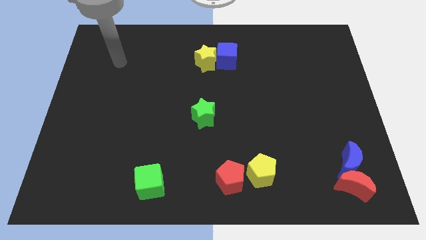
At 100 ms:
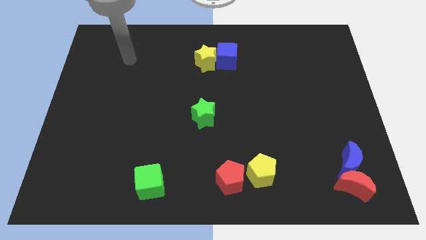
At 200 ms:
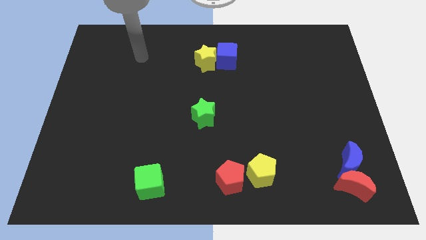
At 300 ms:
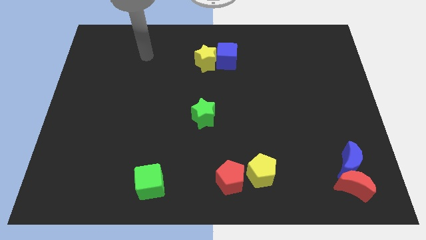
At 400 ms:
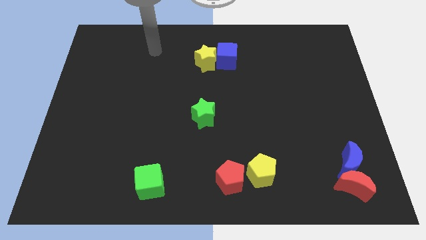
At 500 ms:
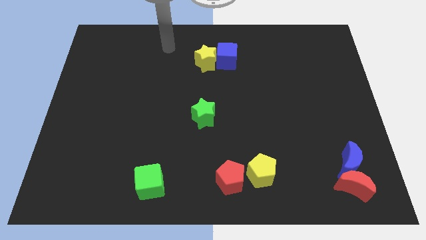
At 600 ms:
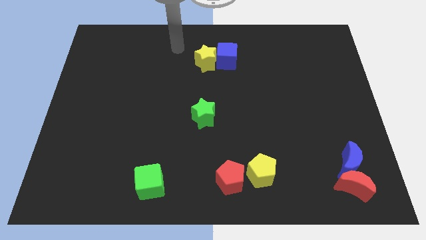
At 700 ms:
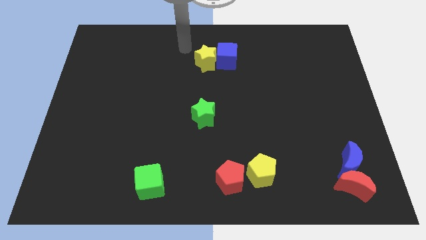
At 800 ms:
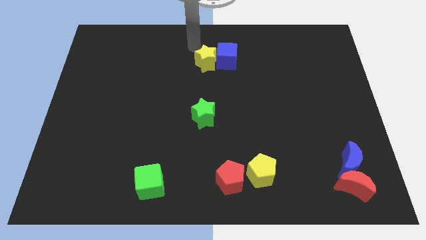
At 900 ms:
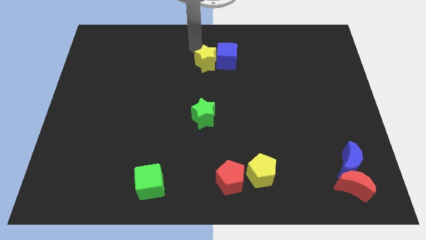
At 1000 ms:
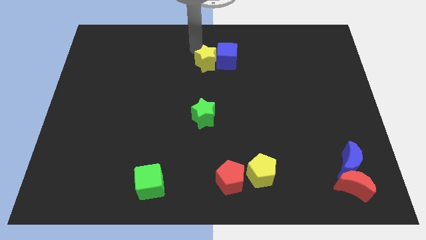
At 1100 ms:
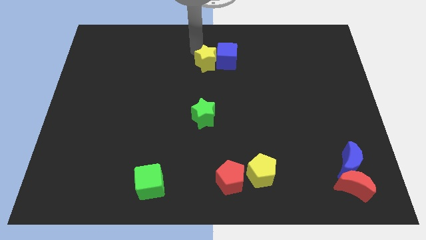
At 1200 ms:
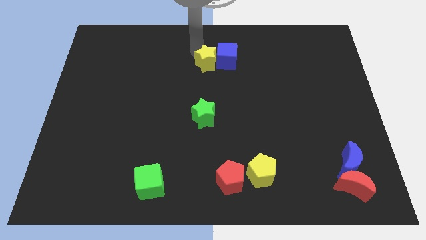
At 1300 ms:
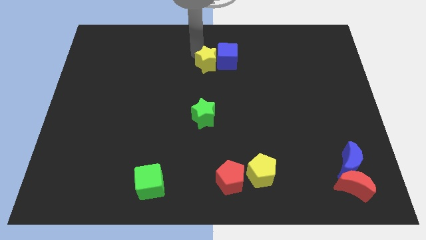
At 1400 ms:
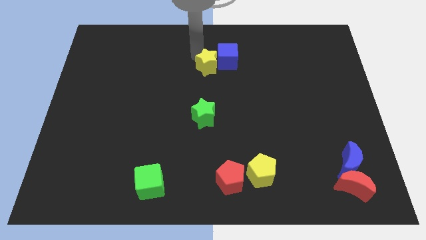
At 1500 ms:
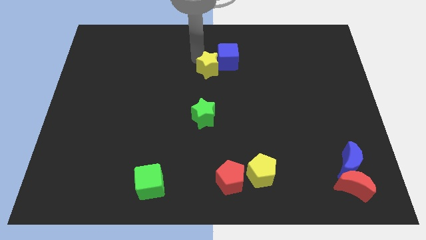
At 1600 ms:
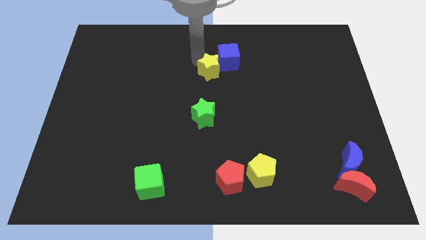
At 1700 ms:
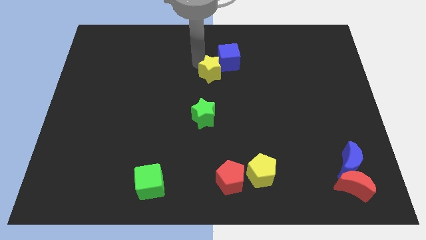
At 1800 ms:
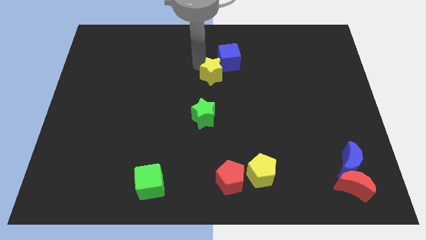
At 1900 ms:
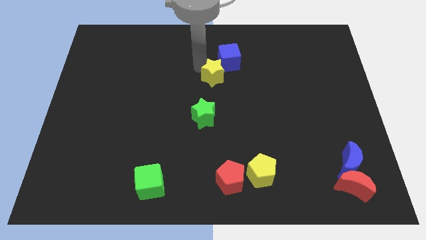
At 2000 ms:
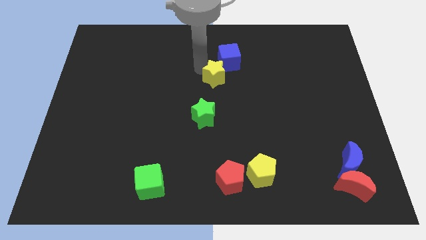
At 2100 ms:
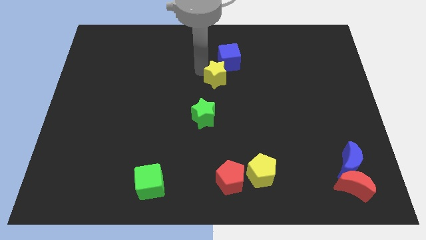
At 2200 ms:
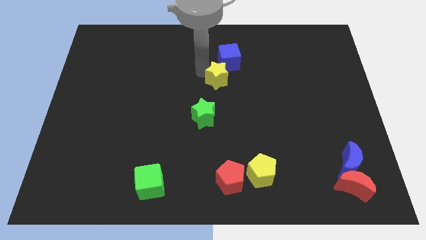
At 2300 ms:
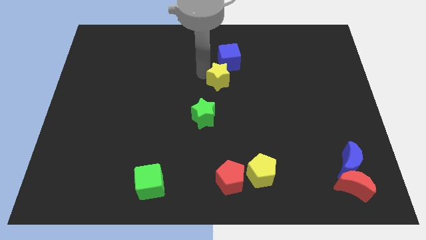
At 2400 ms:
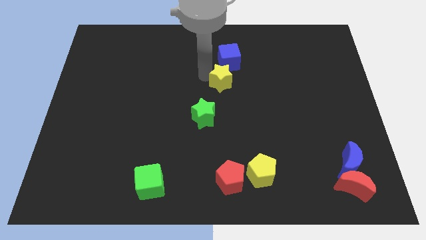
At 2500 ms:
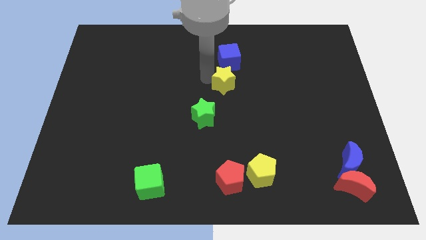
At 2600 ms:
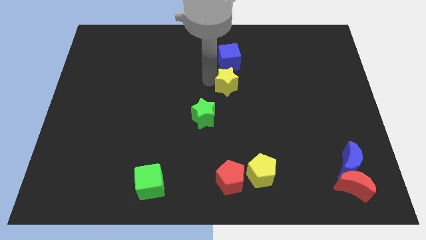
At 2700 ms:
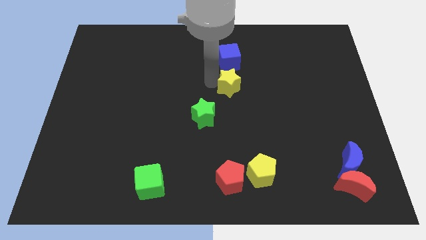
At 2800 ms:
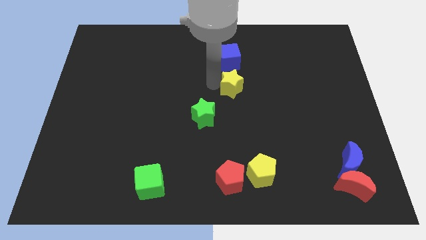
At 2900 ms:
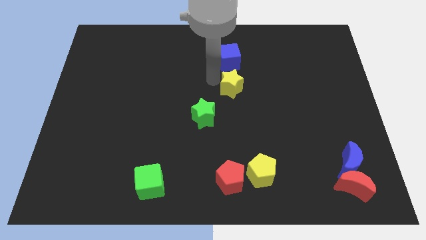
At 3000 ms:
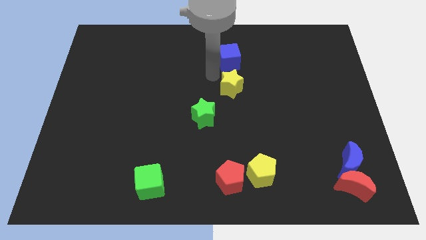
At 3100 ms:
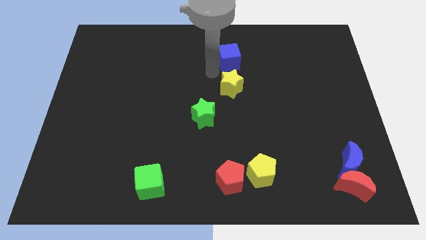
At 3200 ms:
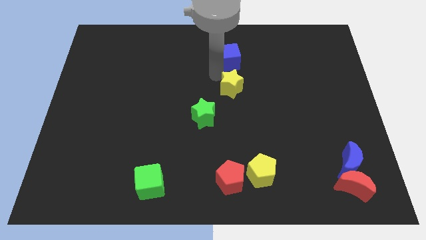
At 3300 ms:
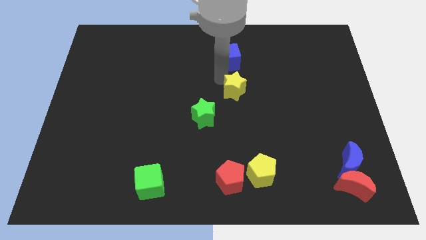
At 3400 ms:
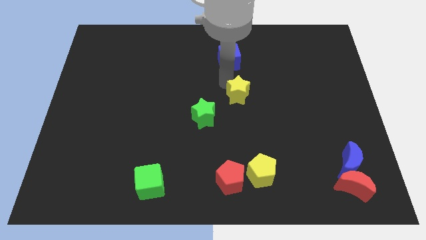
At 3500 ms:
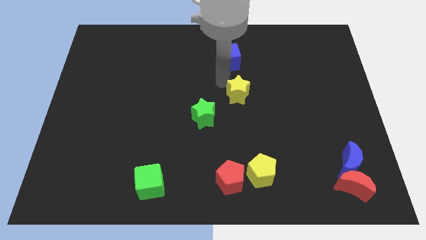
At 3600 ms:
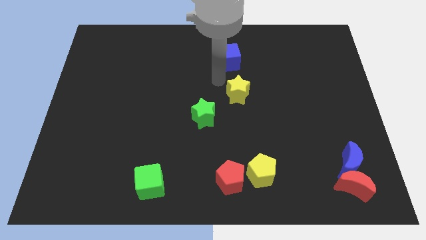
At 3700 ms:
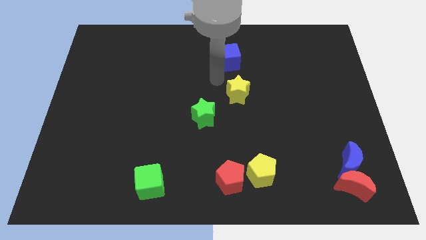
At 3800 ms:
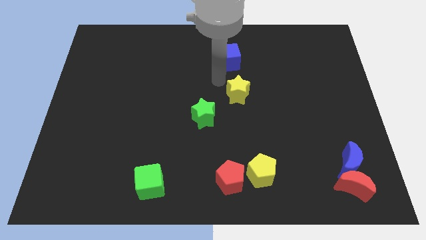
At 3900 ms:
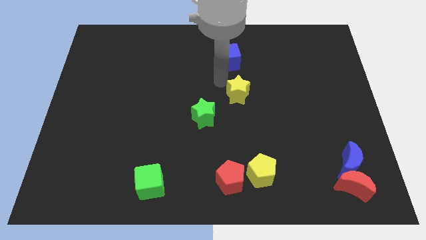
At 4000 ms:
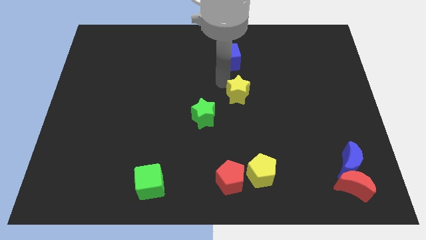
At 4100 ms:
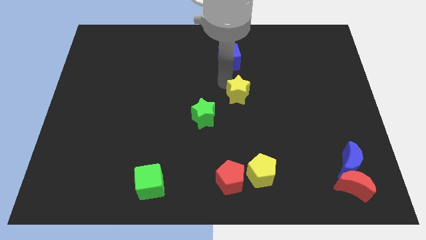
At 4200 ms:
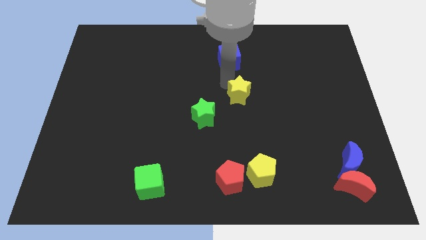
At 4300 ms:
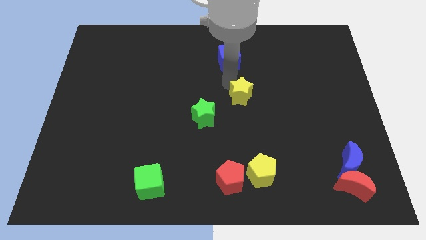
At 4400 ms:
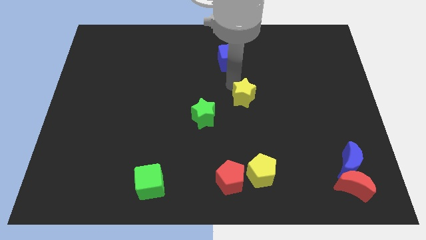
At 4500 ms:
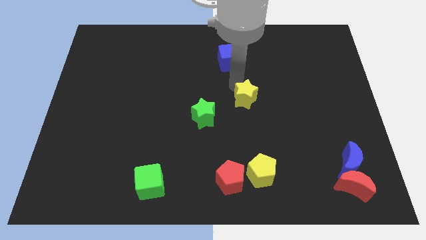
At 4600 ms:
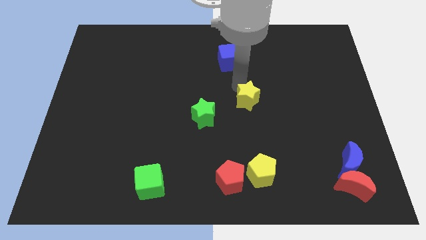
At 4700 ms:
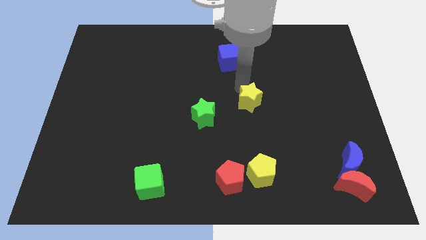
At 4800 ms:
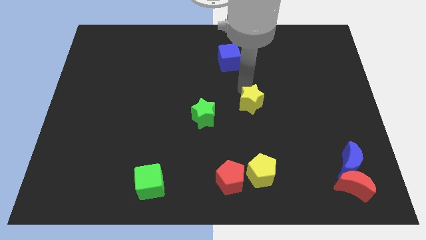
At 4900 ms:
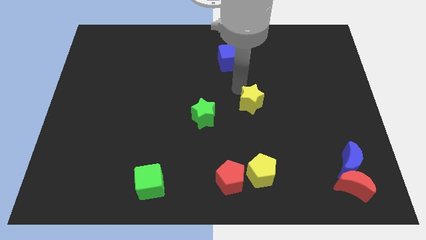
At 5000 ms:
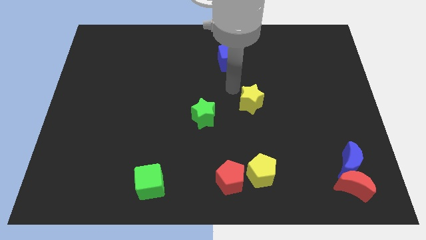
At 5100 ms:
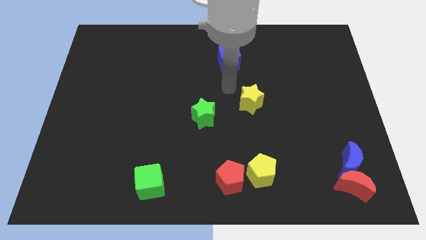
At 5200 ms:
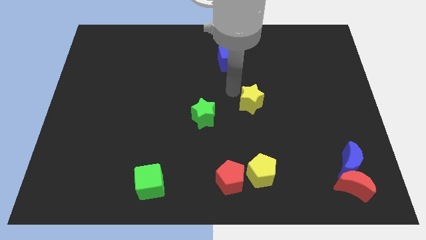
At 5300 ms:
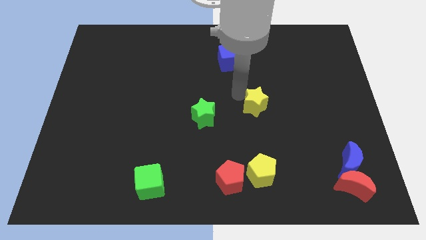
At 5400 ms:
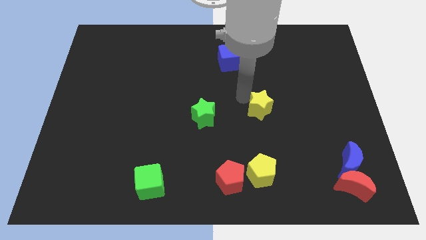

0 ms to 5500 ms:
push the yellow star down and to the right

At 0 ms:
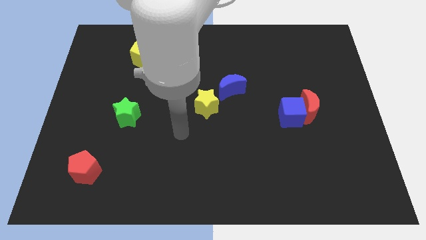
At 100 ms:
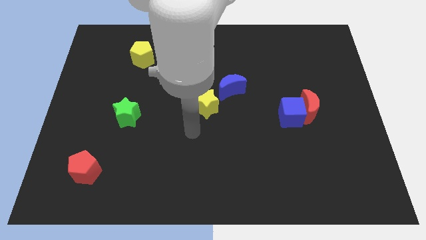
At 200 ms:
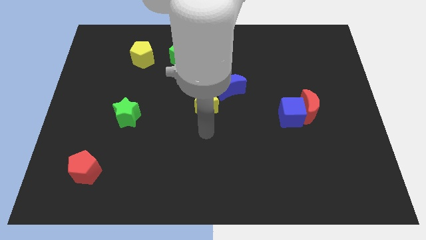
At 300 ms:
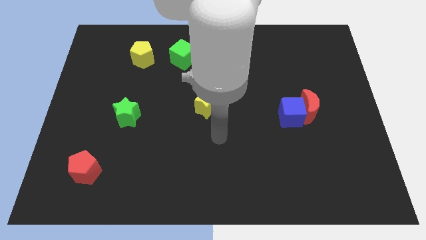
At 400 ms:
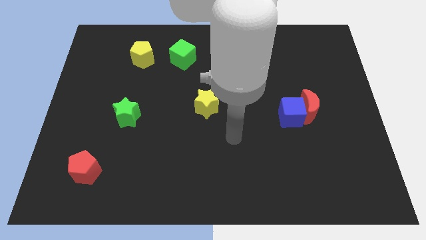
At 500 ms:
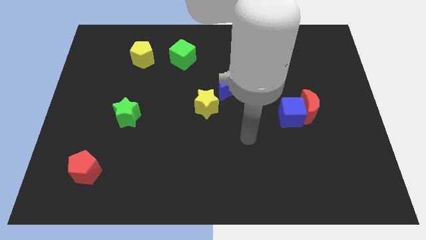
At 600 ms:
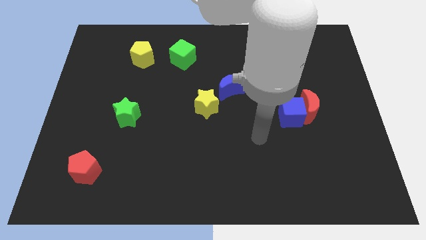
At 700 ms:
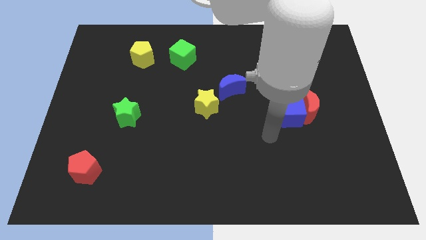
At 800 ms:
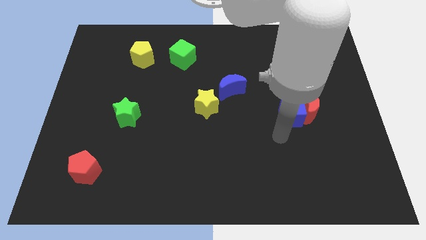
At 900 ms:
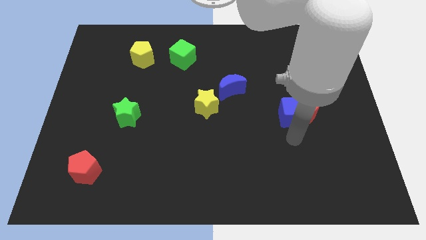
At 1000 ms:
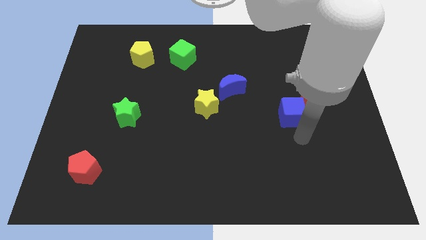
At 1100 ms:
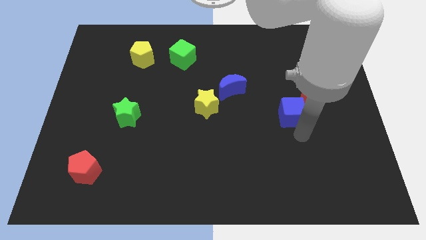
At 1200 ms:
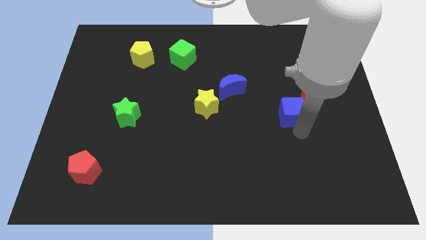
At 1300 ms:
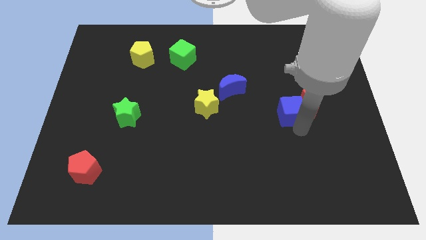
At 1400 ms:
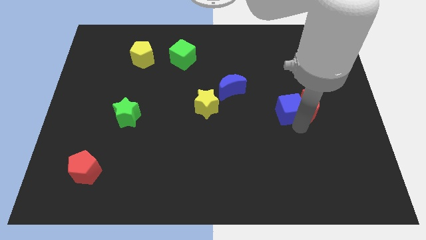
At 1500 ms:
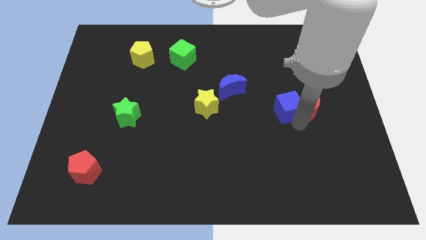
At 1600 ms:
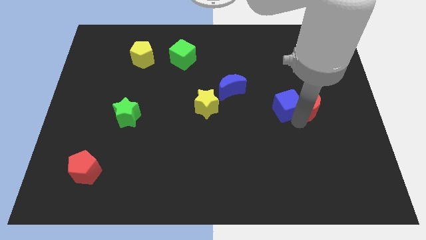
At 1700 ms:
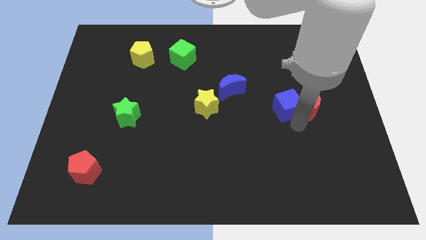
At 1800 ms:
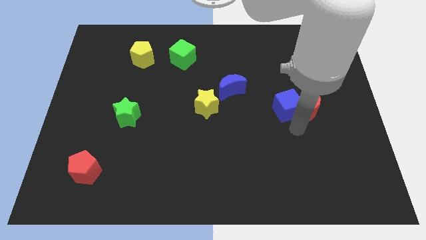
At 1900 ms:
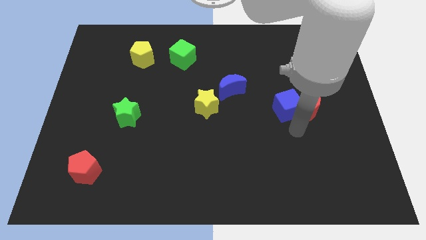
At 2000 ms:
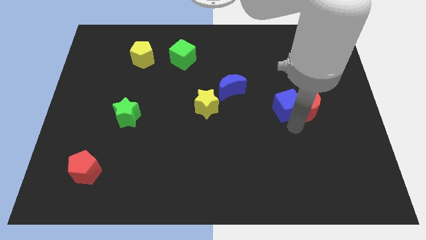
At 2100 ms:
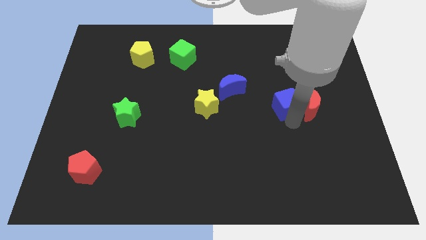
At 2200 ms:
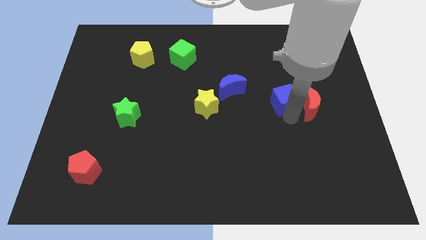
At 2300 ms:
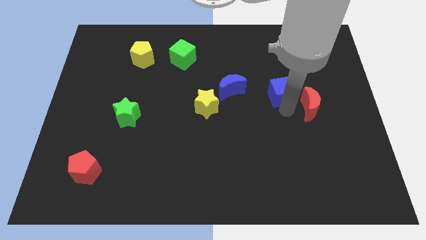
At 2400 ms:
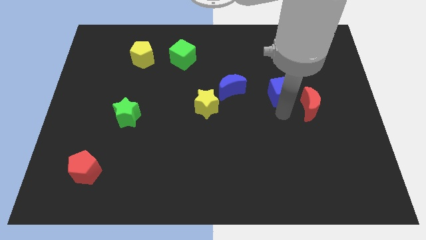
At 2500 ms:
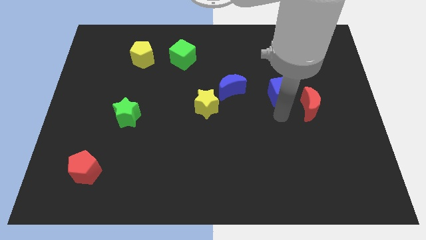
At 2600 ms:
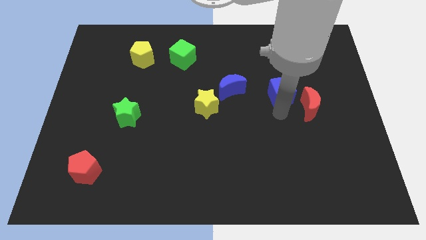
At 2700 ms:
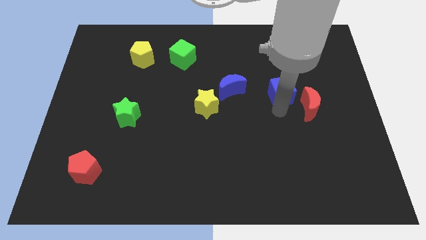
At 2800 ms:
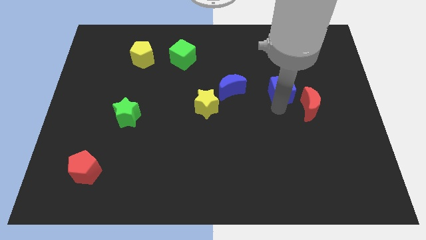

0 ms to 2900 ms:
slide the blue cube up somewhat
